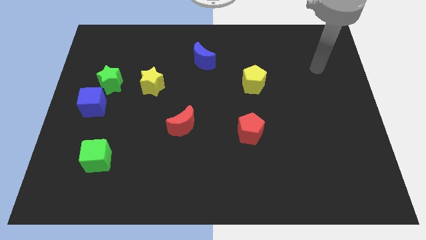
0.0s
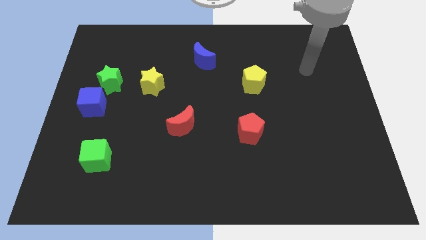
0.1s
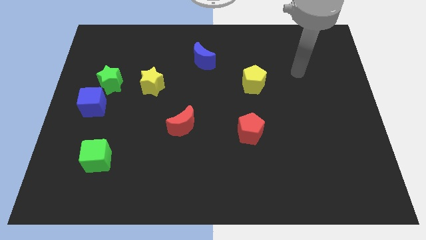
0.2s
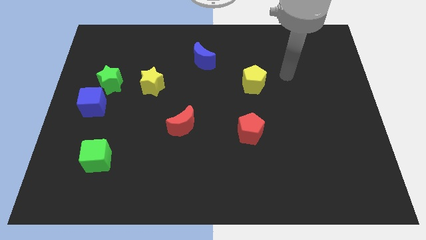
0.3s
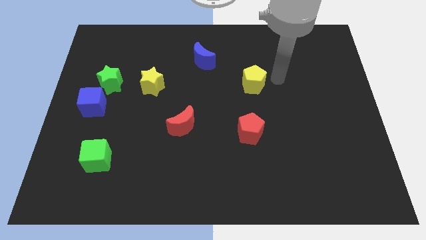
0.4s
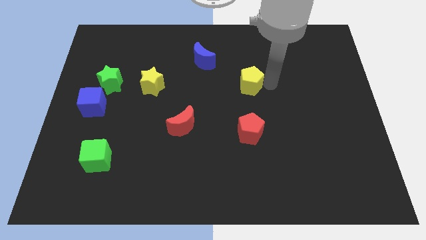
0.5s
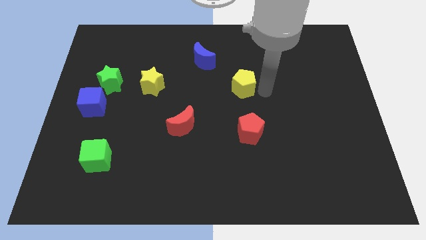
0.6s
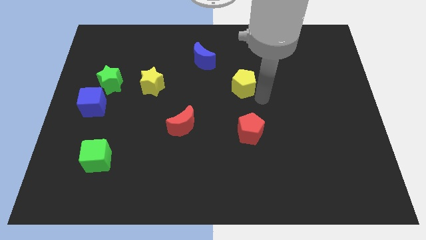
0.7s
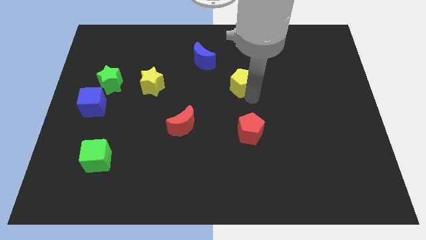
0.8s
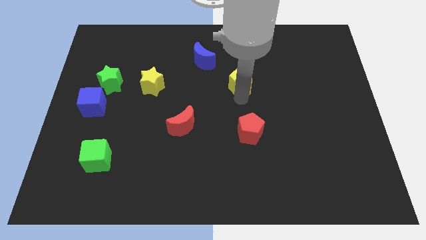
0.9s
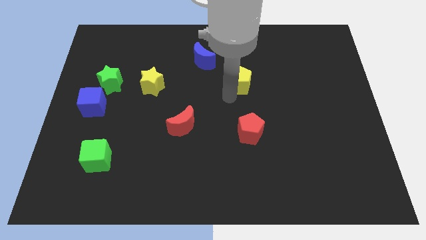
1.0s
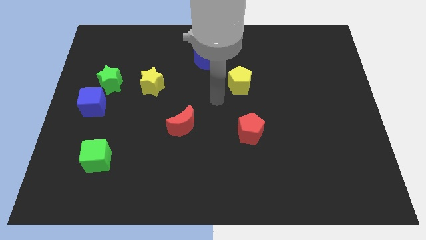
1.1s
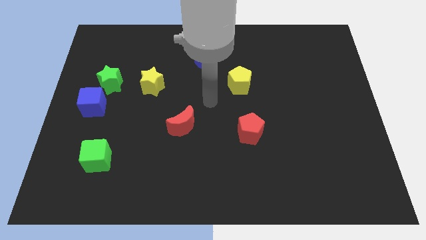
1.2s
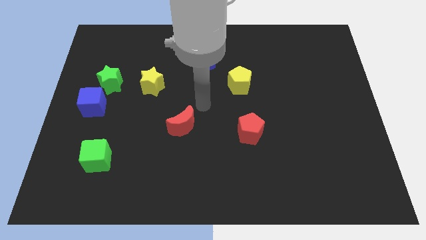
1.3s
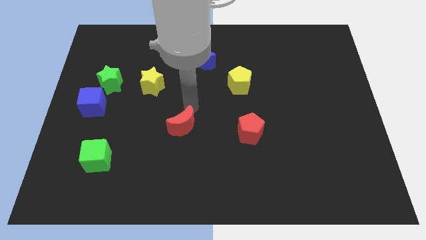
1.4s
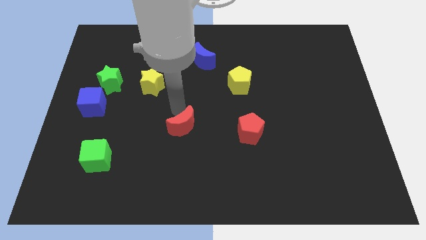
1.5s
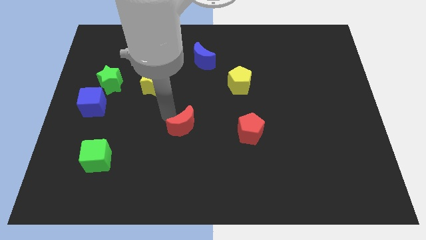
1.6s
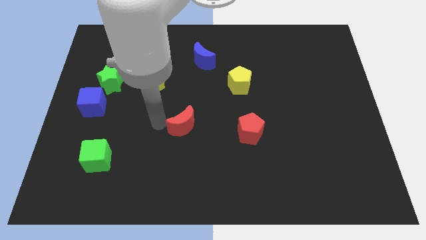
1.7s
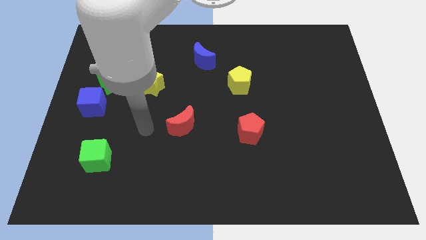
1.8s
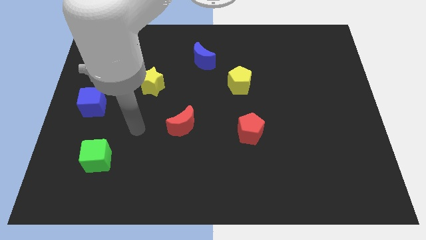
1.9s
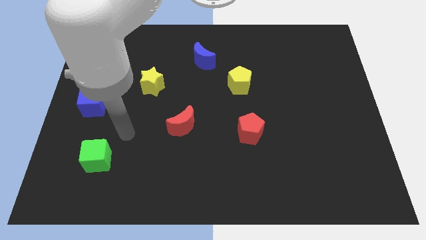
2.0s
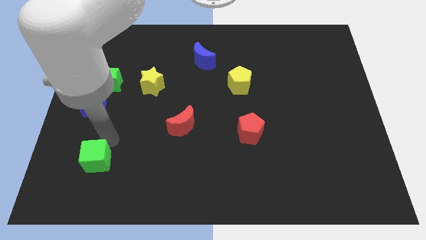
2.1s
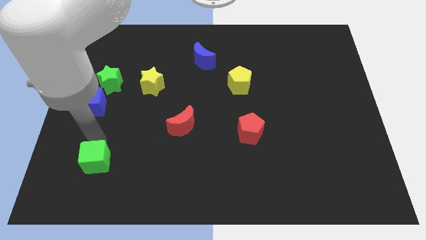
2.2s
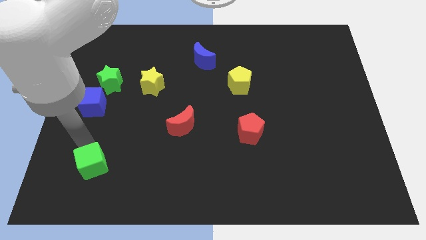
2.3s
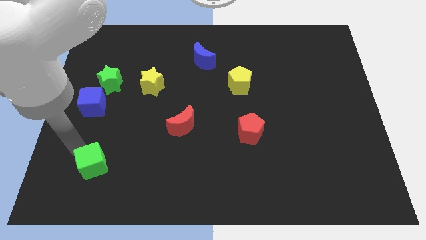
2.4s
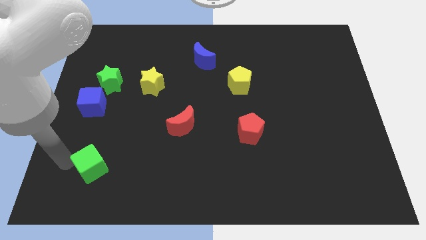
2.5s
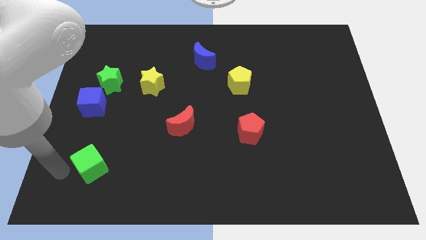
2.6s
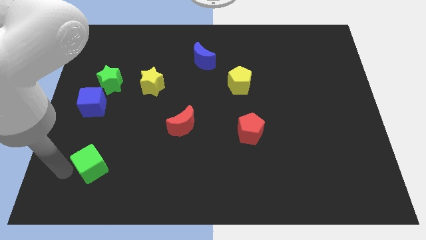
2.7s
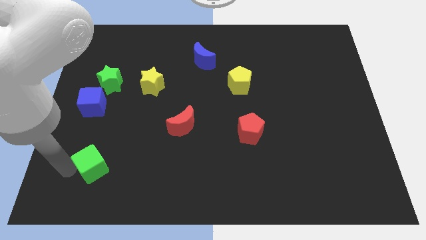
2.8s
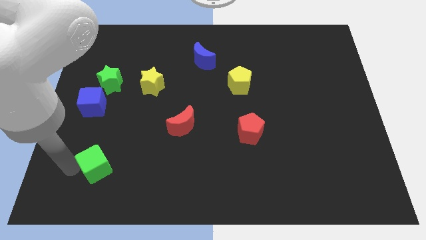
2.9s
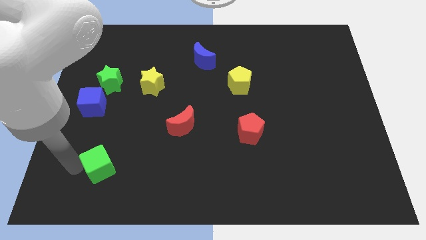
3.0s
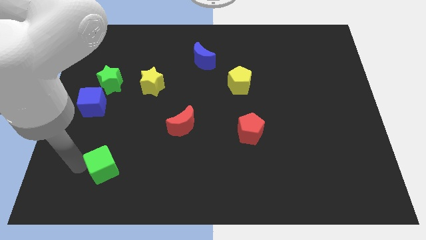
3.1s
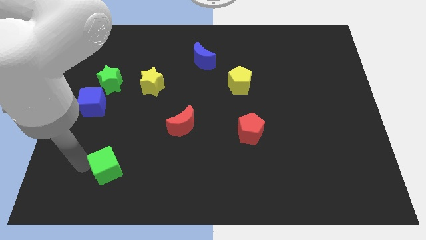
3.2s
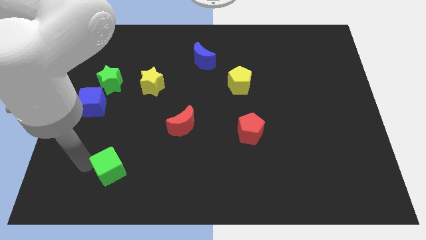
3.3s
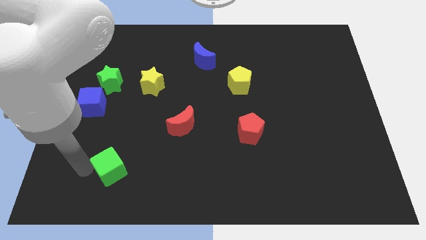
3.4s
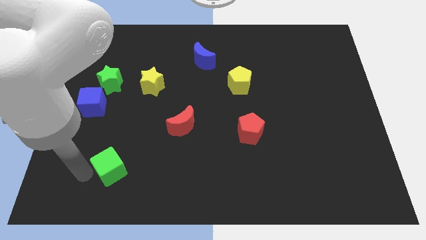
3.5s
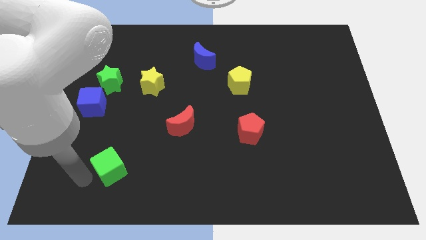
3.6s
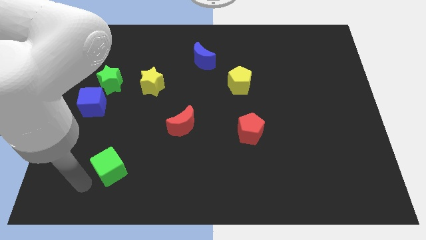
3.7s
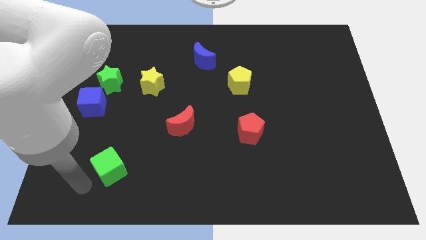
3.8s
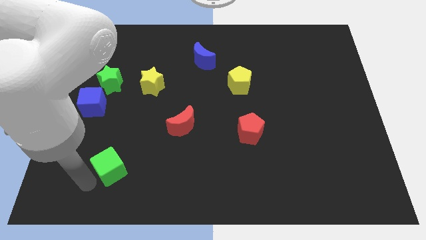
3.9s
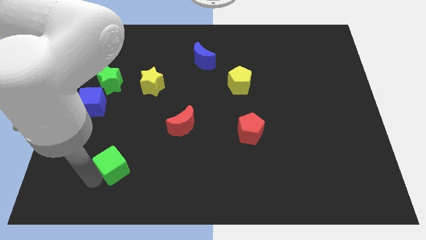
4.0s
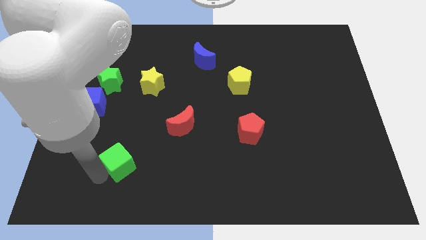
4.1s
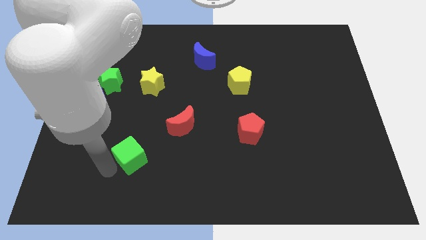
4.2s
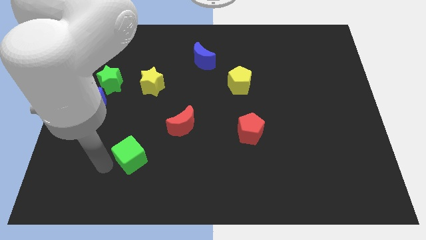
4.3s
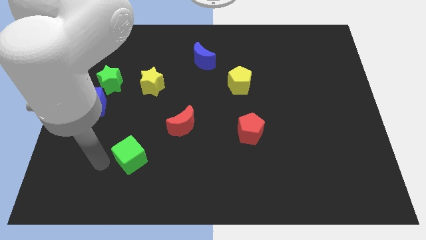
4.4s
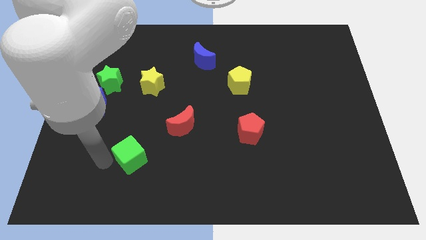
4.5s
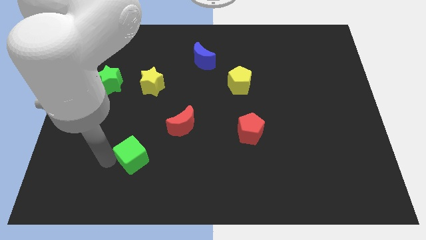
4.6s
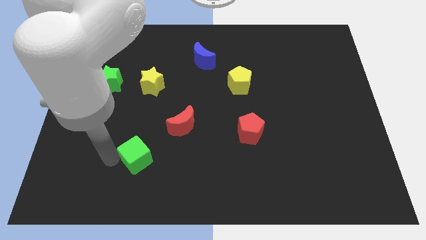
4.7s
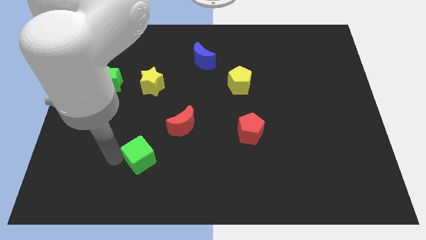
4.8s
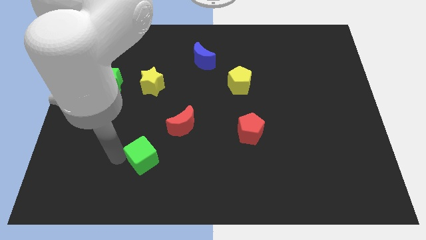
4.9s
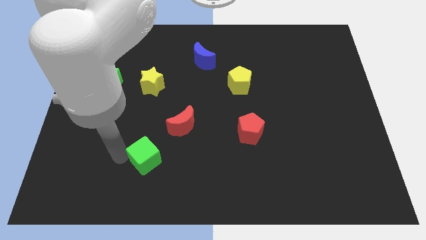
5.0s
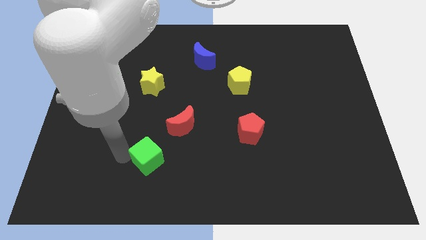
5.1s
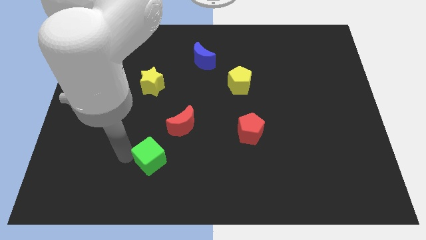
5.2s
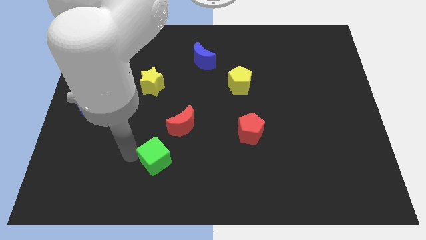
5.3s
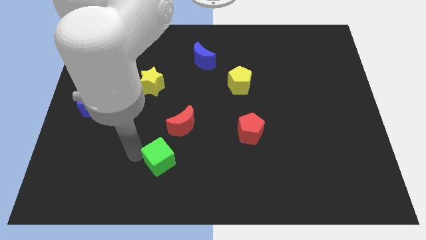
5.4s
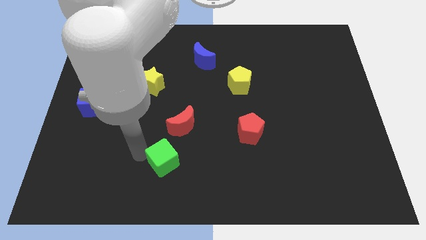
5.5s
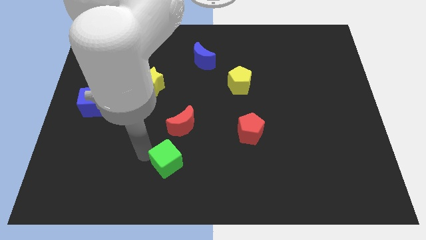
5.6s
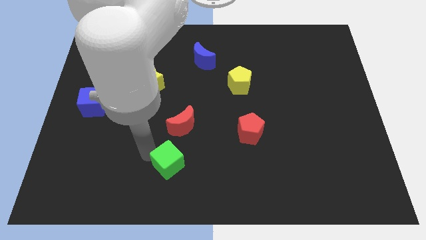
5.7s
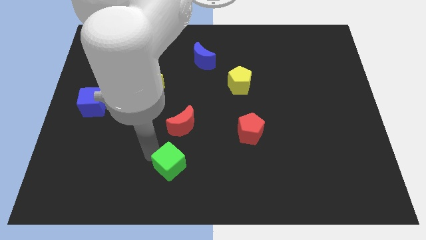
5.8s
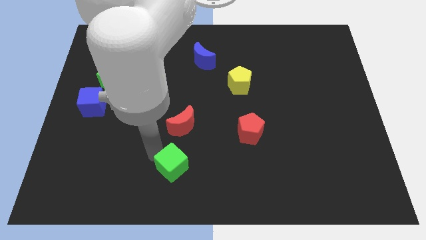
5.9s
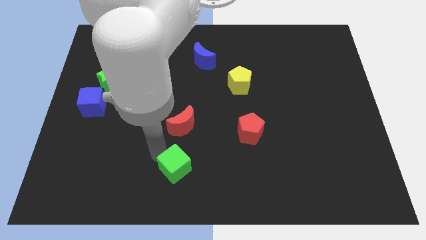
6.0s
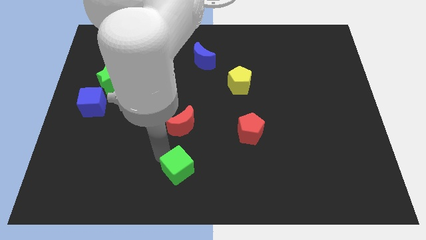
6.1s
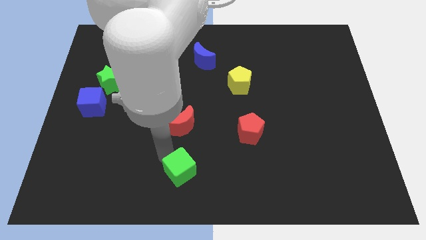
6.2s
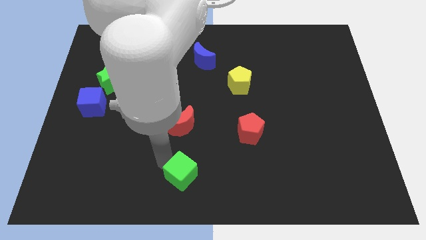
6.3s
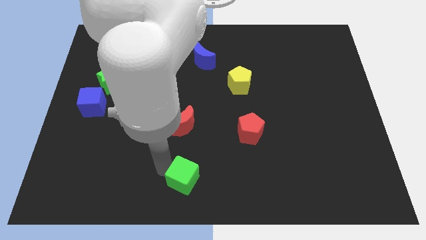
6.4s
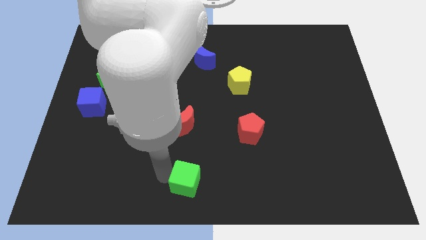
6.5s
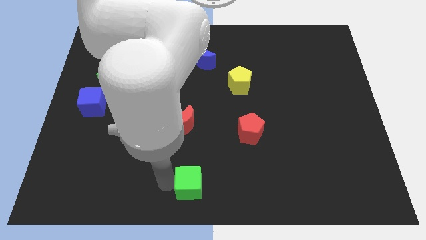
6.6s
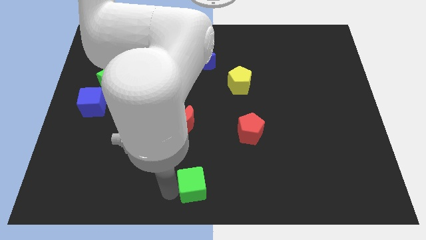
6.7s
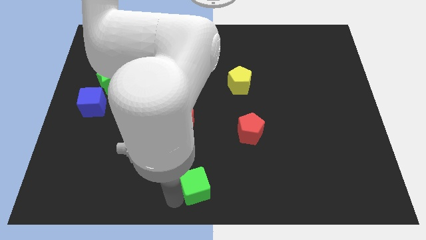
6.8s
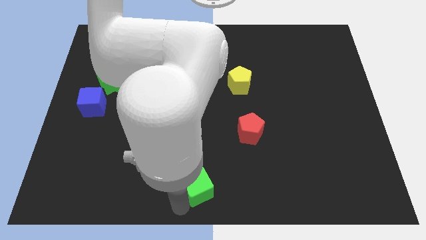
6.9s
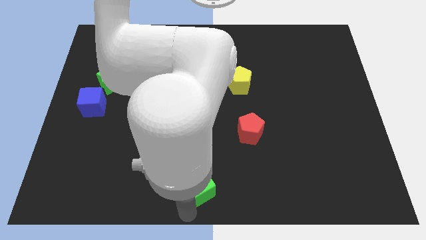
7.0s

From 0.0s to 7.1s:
slide the green cube right

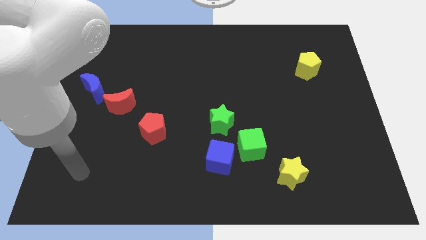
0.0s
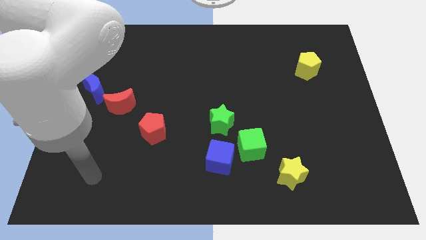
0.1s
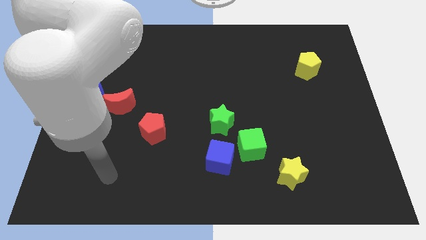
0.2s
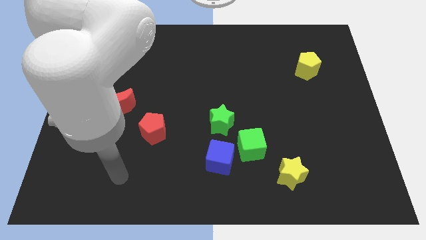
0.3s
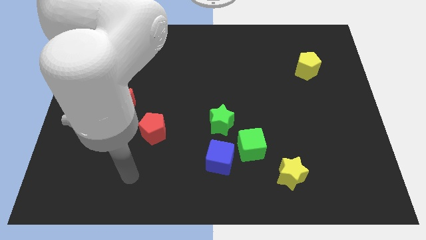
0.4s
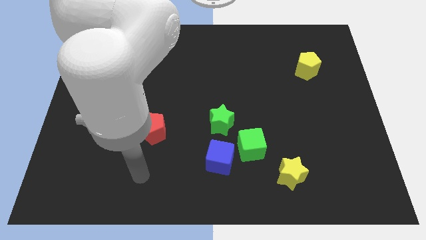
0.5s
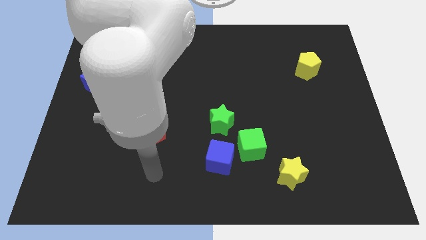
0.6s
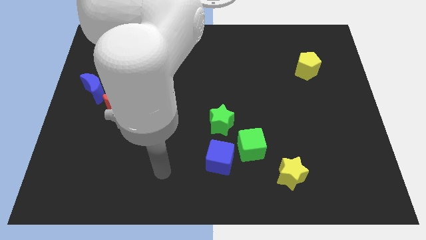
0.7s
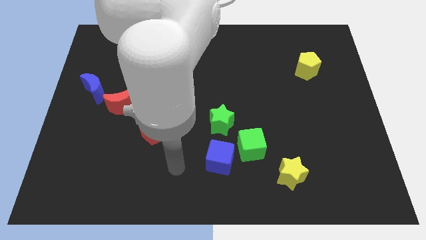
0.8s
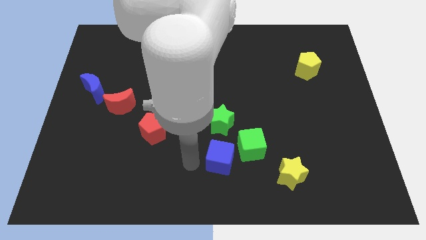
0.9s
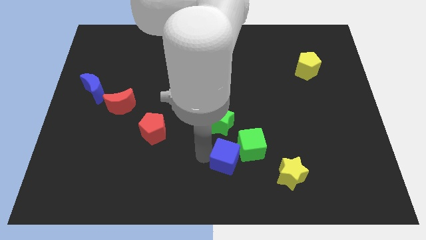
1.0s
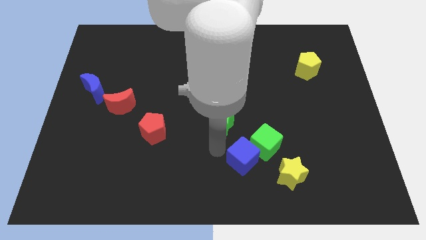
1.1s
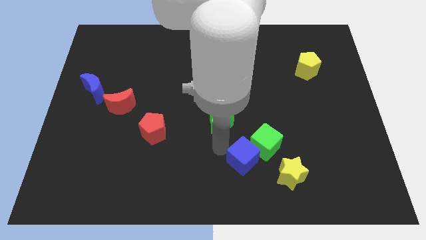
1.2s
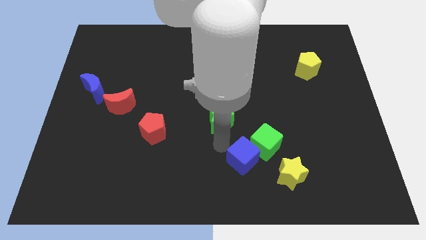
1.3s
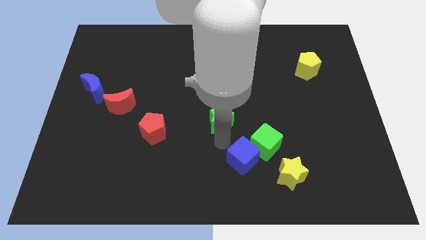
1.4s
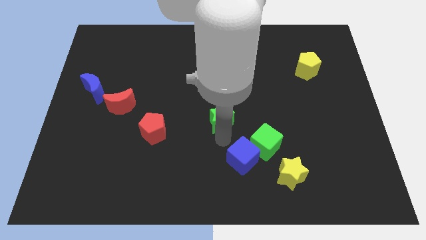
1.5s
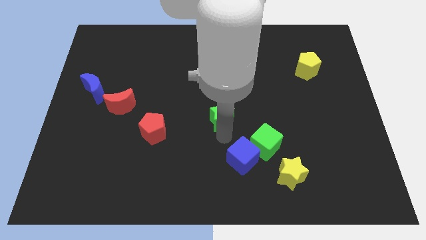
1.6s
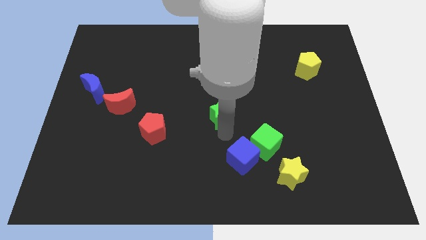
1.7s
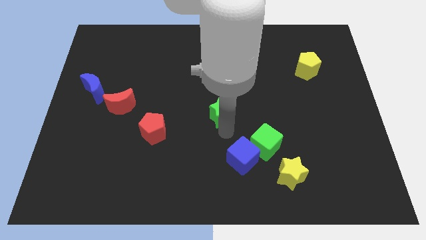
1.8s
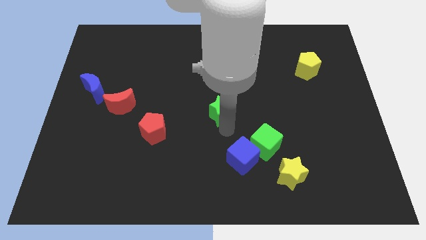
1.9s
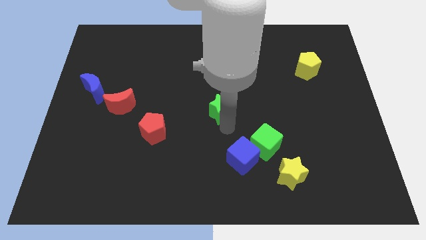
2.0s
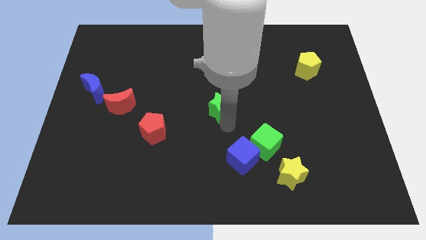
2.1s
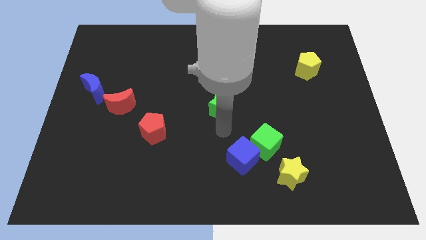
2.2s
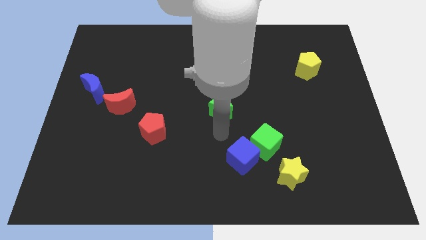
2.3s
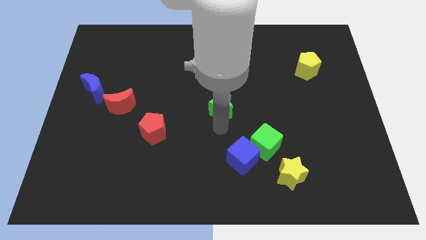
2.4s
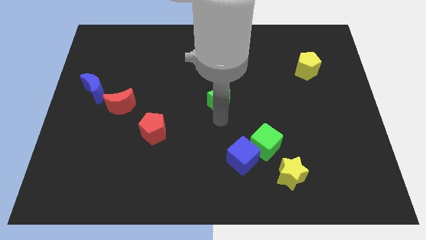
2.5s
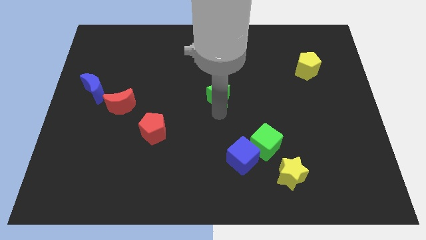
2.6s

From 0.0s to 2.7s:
slide the green star upwards a little
